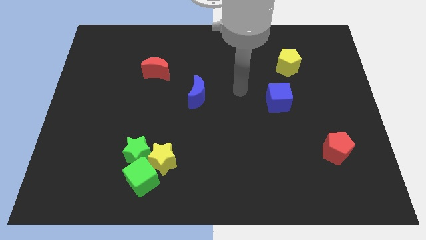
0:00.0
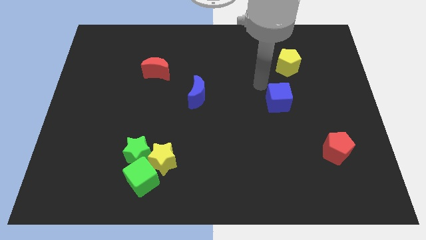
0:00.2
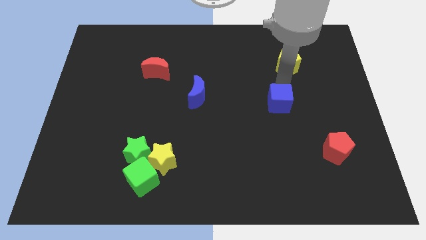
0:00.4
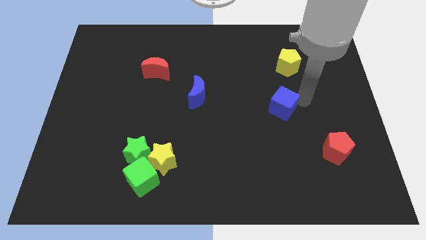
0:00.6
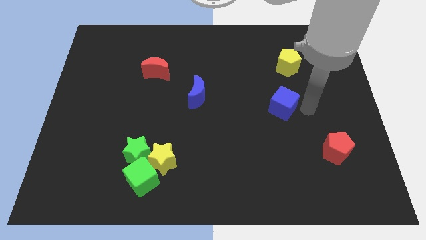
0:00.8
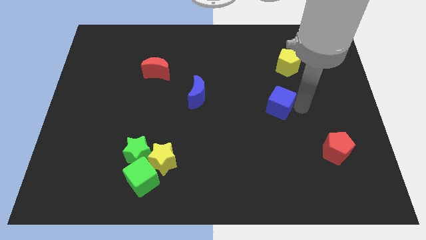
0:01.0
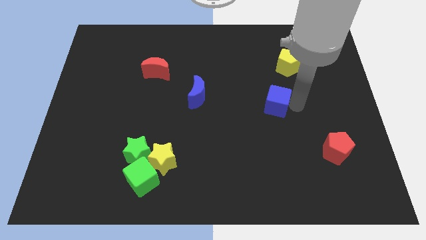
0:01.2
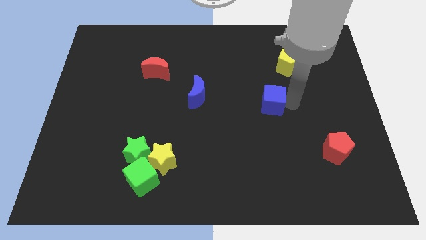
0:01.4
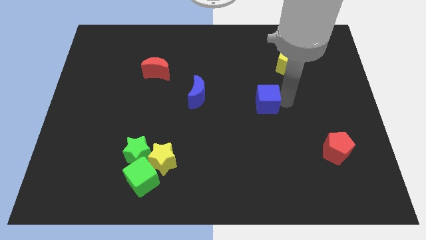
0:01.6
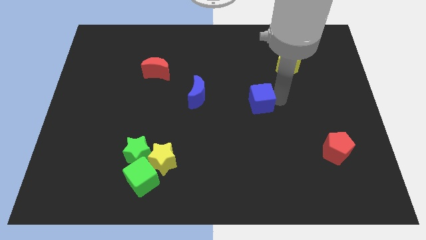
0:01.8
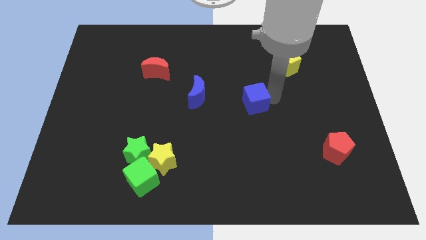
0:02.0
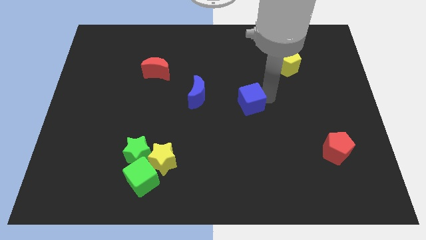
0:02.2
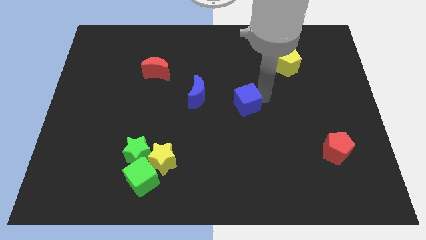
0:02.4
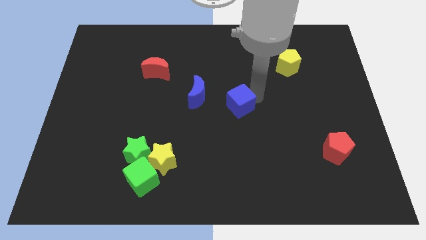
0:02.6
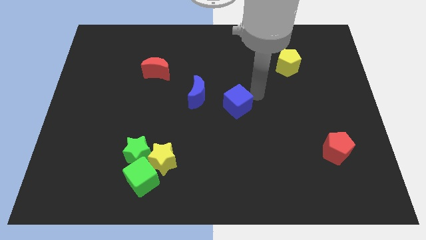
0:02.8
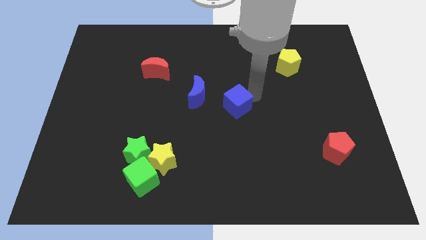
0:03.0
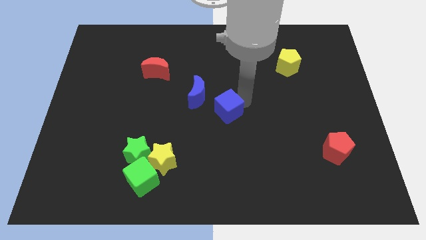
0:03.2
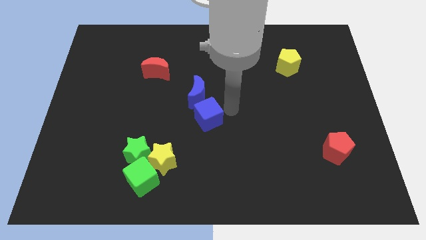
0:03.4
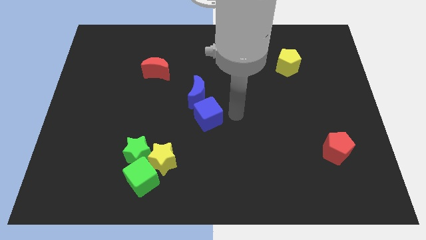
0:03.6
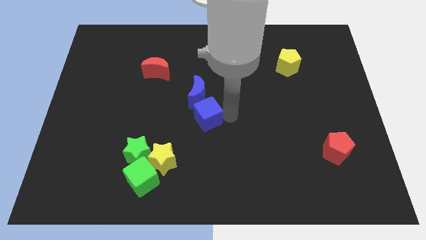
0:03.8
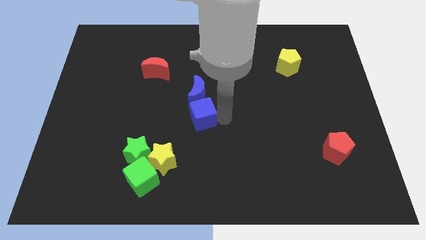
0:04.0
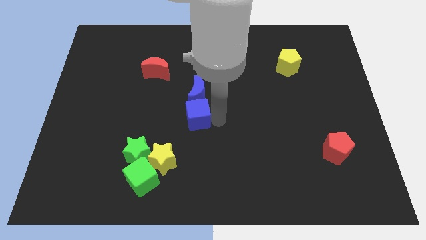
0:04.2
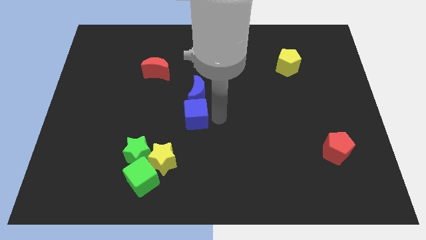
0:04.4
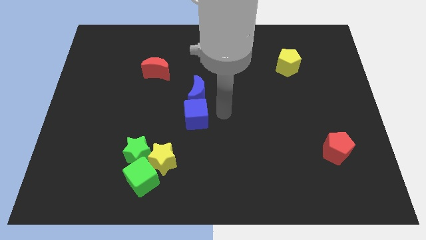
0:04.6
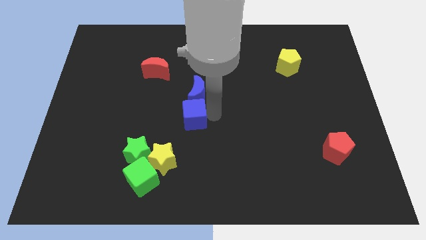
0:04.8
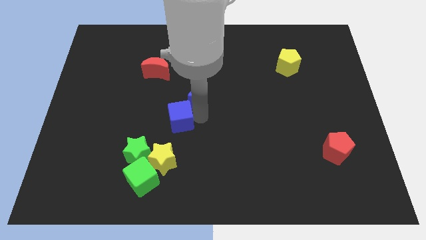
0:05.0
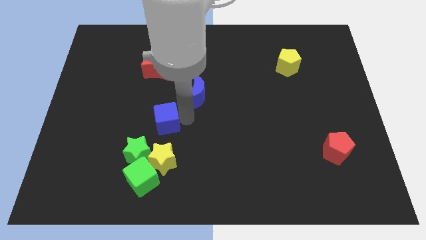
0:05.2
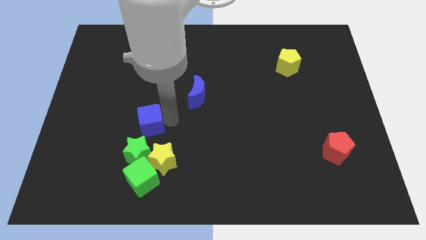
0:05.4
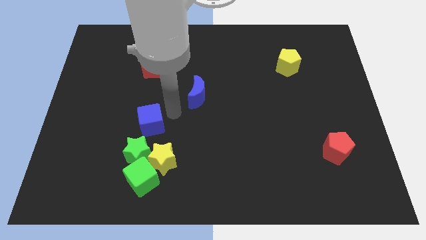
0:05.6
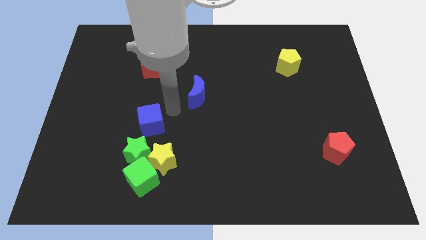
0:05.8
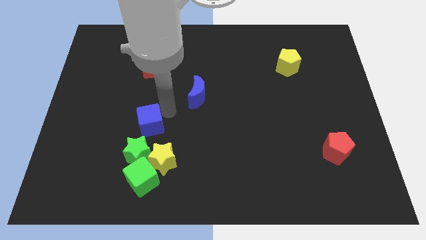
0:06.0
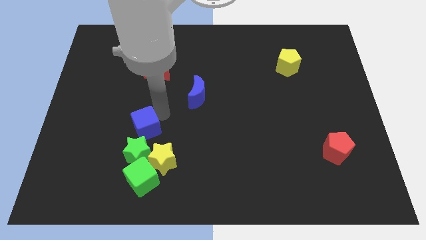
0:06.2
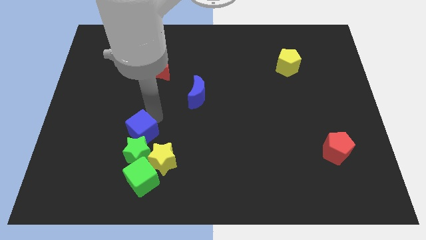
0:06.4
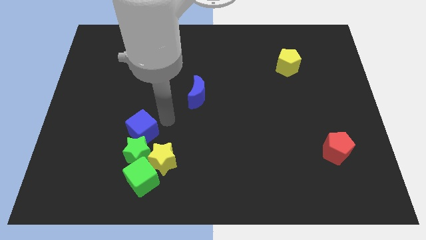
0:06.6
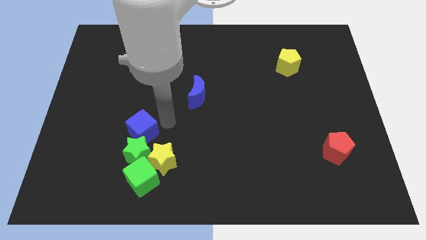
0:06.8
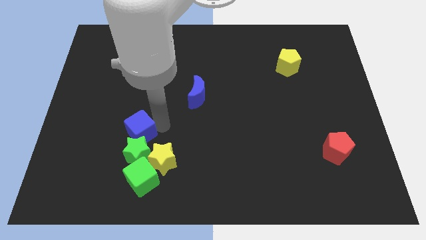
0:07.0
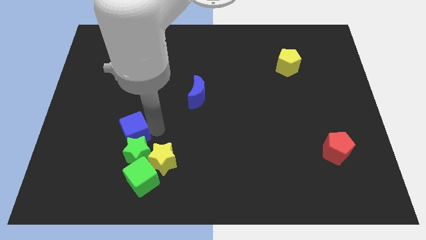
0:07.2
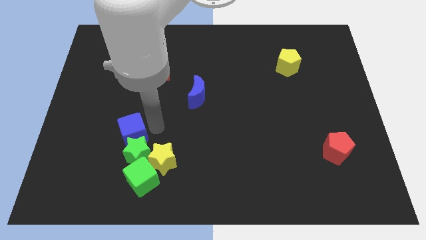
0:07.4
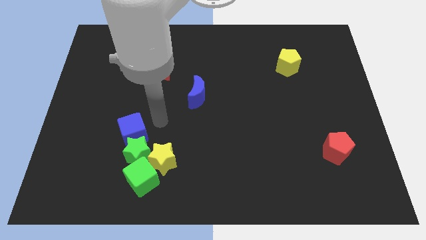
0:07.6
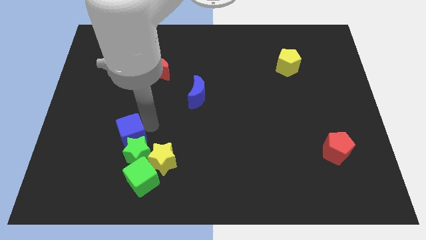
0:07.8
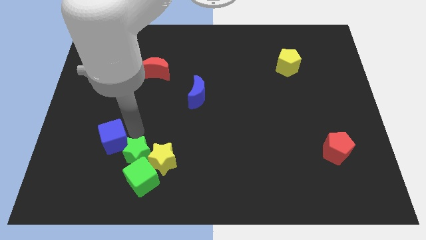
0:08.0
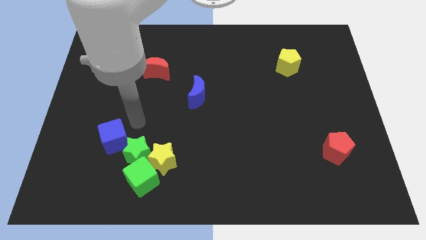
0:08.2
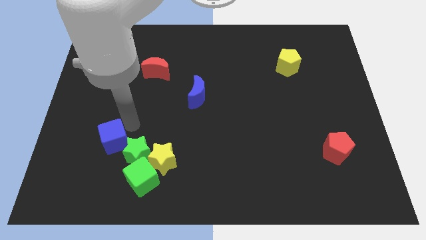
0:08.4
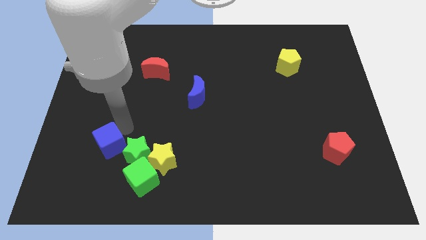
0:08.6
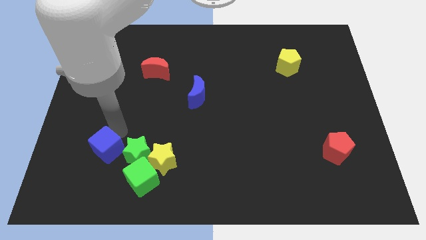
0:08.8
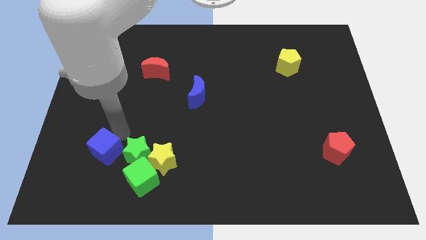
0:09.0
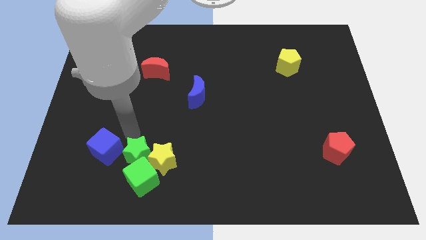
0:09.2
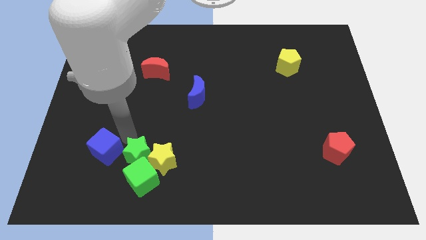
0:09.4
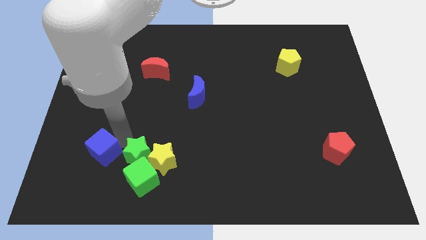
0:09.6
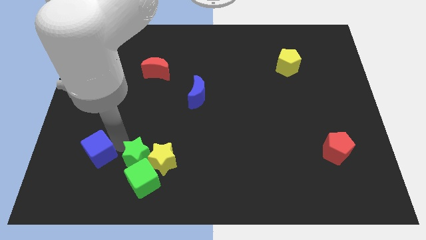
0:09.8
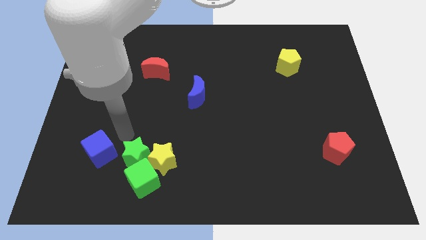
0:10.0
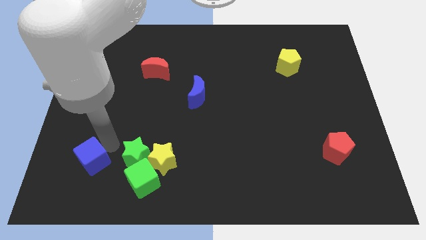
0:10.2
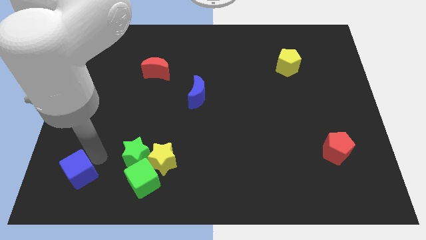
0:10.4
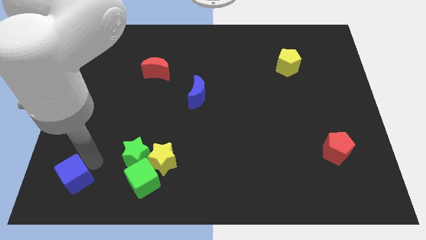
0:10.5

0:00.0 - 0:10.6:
slide the blue cube to the bottom left

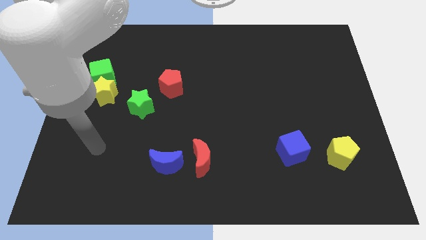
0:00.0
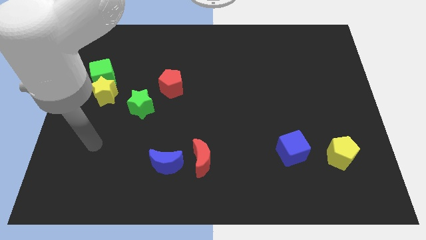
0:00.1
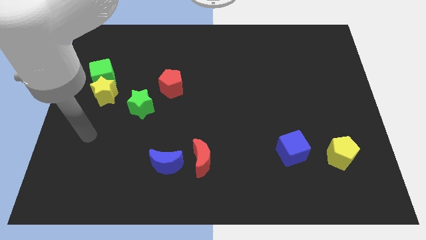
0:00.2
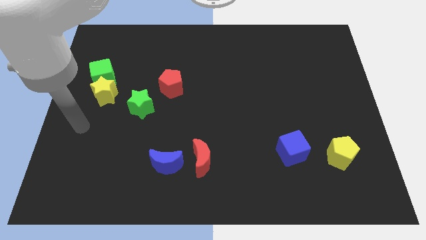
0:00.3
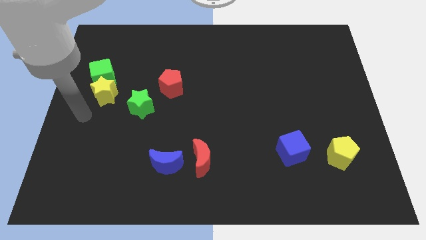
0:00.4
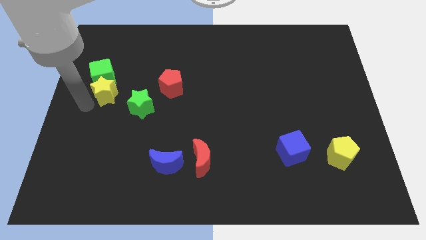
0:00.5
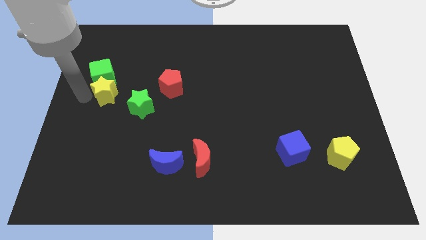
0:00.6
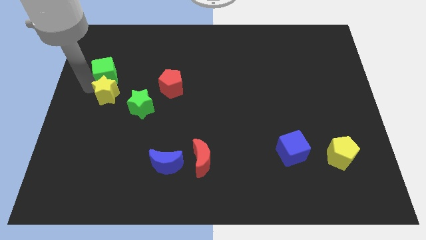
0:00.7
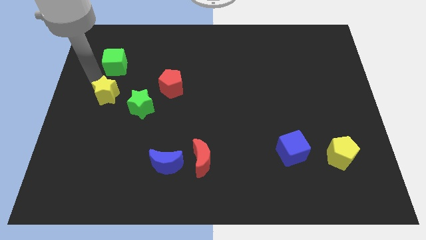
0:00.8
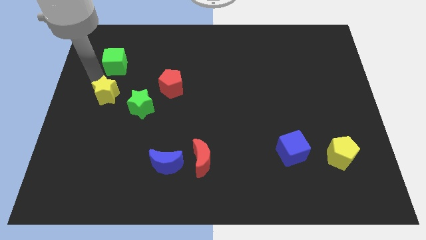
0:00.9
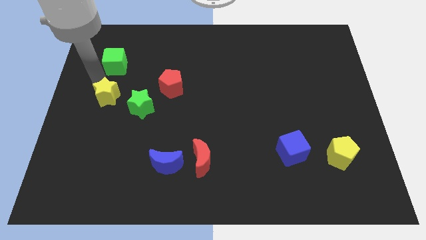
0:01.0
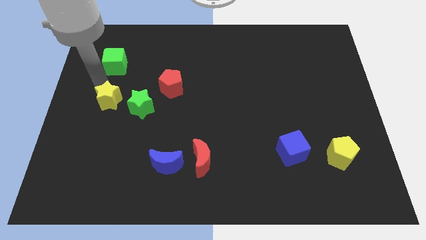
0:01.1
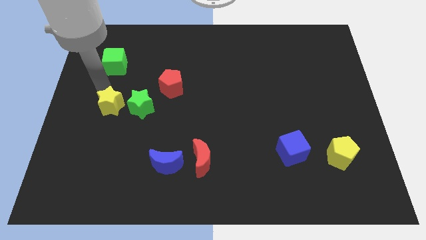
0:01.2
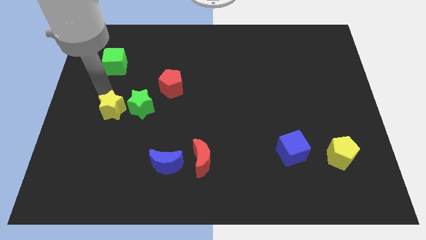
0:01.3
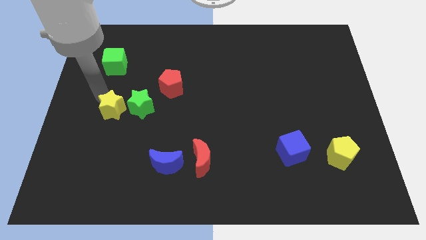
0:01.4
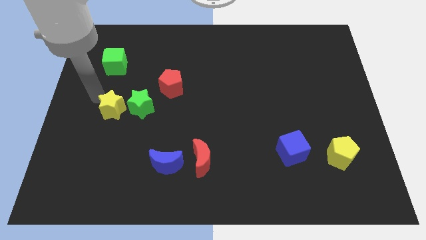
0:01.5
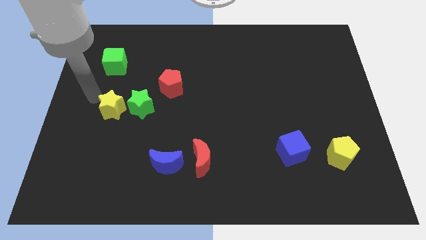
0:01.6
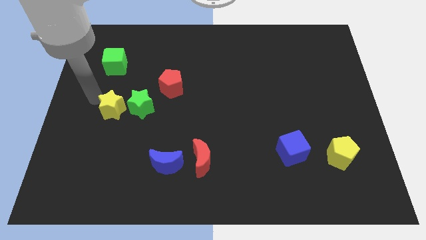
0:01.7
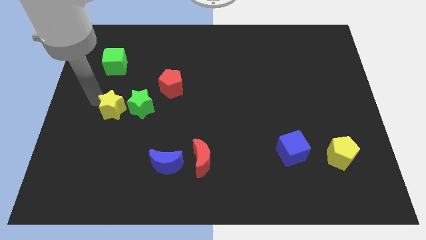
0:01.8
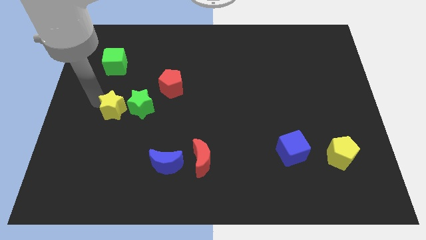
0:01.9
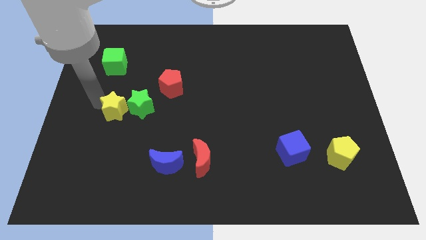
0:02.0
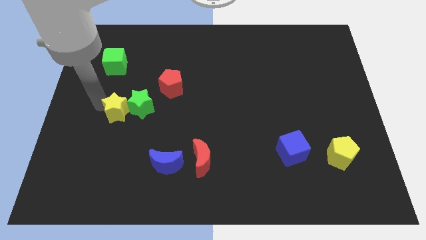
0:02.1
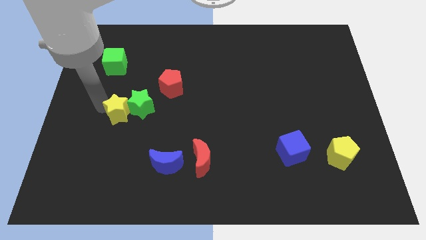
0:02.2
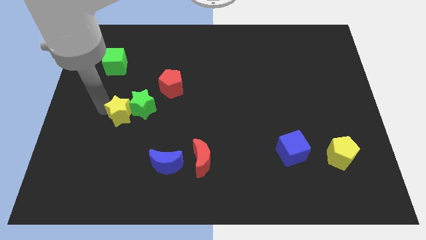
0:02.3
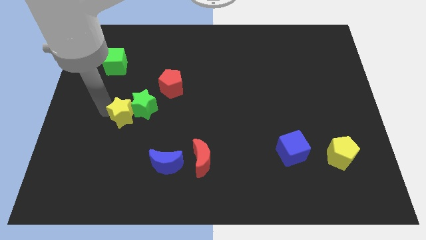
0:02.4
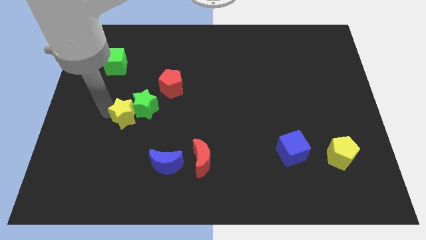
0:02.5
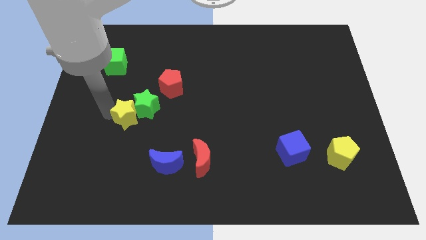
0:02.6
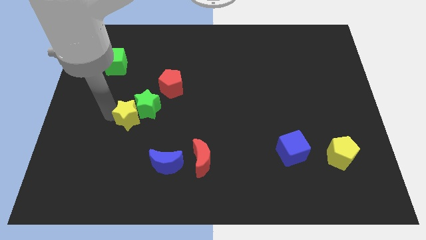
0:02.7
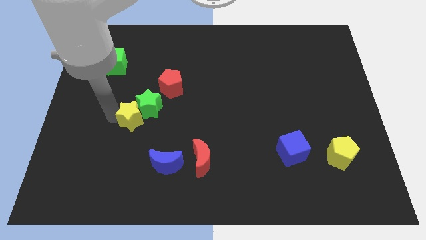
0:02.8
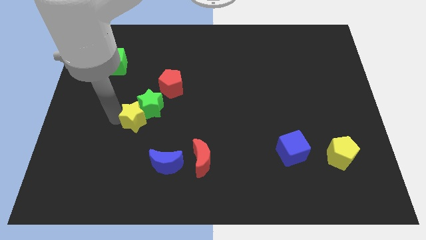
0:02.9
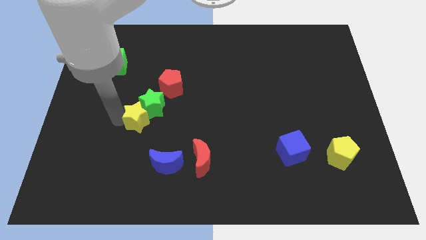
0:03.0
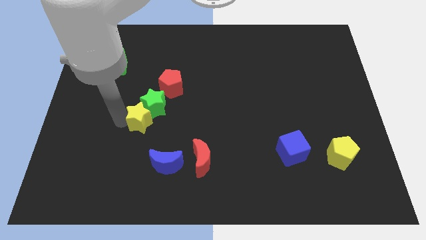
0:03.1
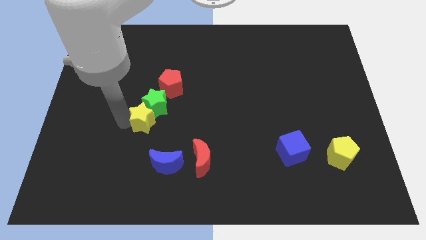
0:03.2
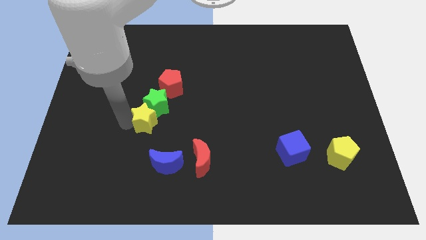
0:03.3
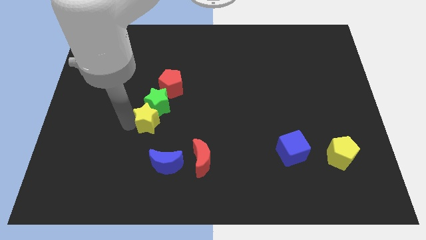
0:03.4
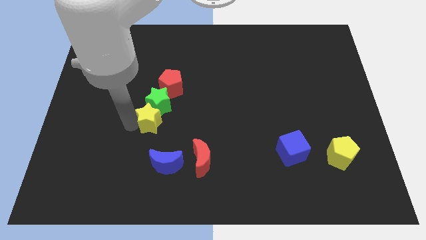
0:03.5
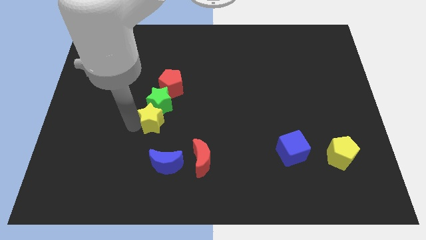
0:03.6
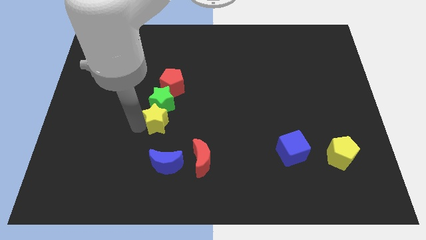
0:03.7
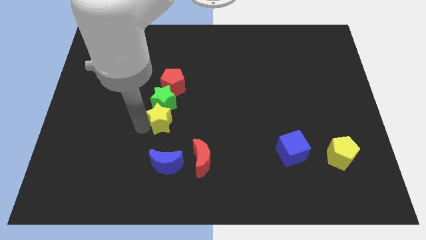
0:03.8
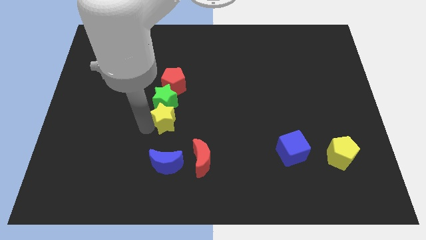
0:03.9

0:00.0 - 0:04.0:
move the yellow star to the middle
